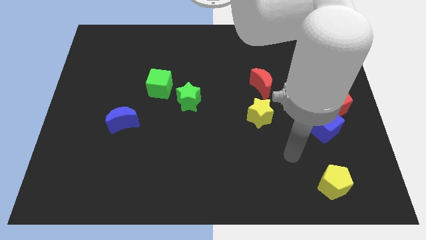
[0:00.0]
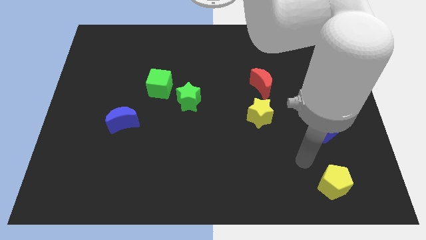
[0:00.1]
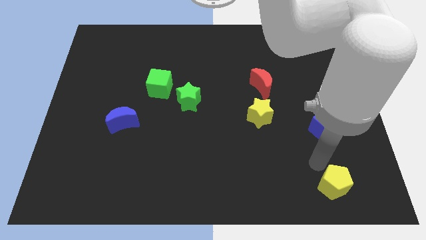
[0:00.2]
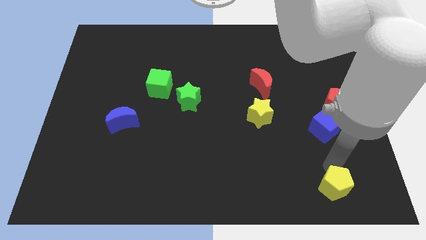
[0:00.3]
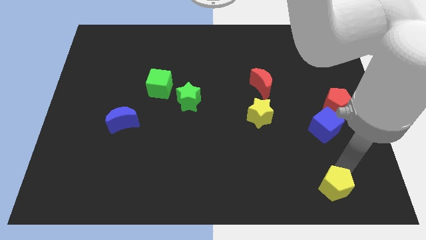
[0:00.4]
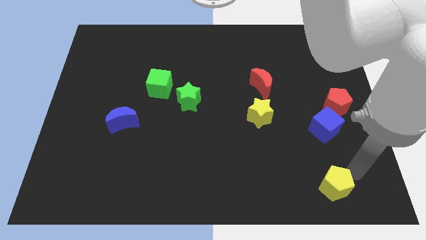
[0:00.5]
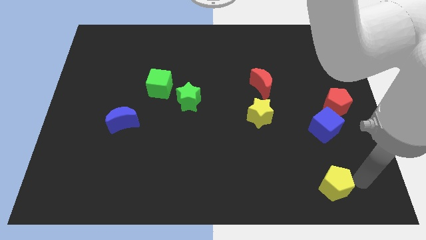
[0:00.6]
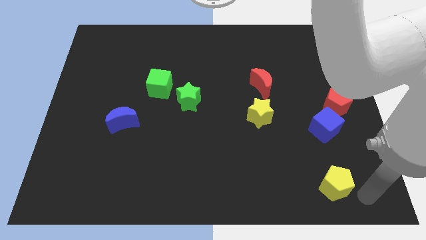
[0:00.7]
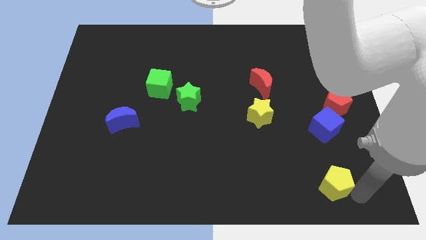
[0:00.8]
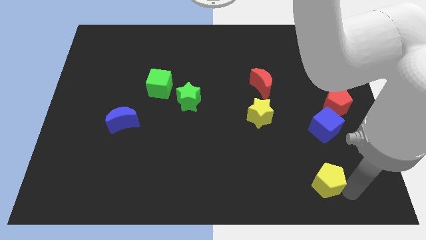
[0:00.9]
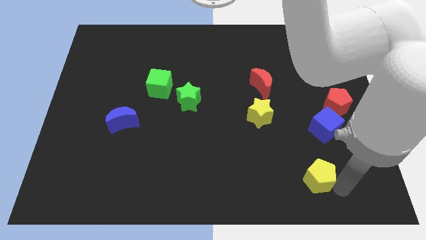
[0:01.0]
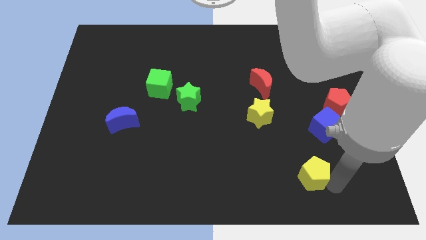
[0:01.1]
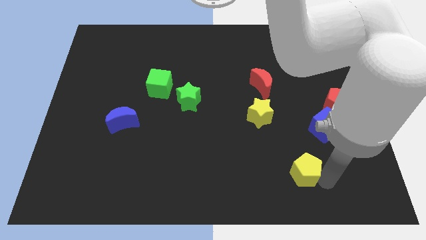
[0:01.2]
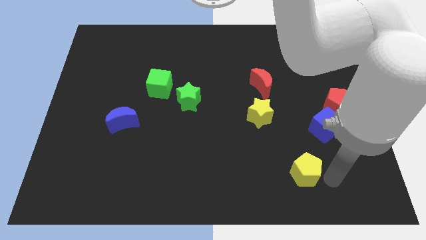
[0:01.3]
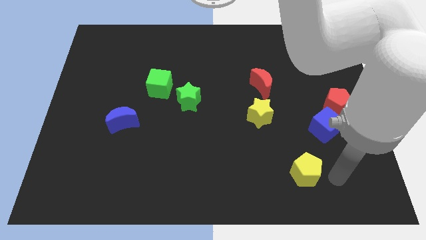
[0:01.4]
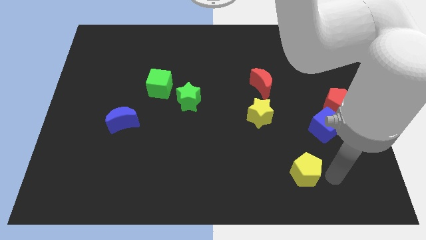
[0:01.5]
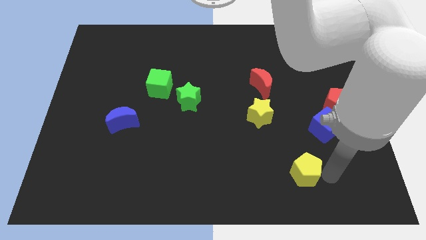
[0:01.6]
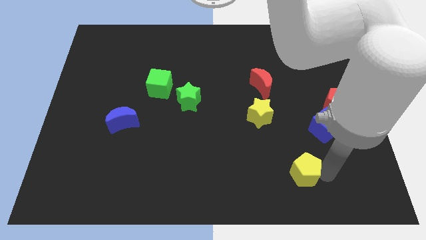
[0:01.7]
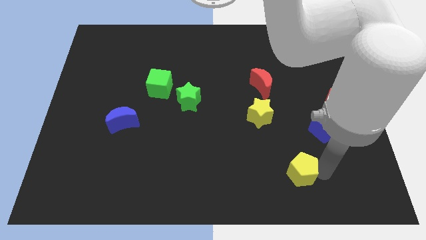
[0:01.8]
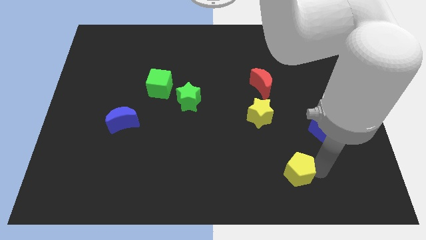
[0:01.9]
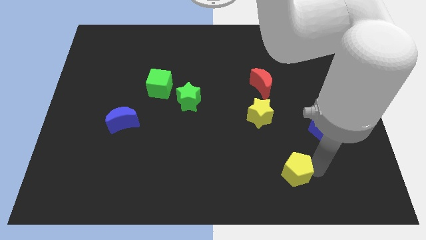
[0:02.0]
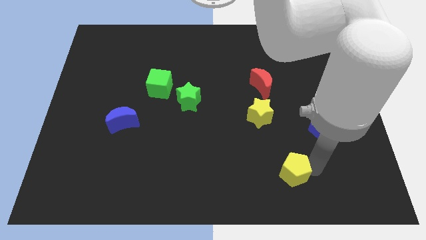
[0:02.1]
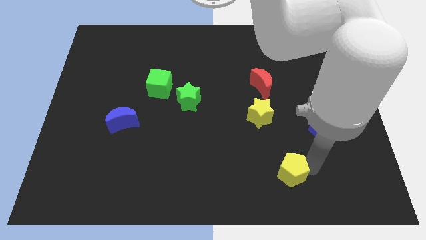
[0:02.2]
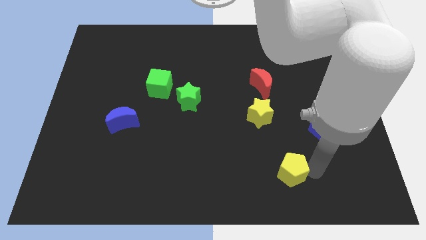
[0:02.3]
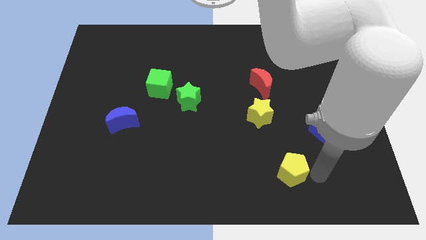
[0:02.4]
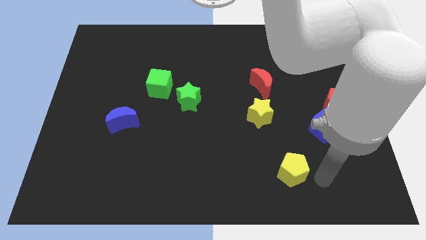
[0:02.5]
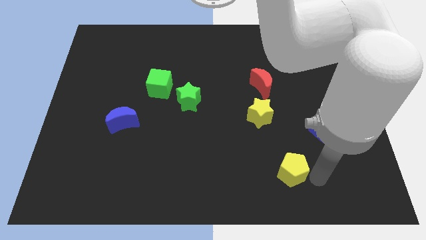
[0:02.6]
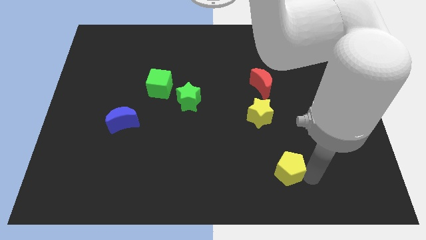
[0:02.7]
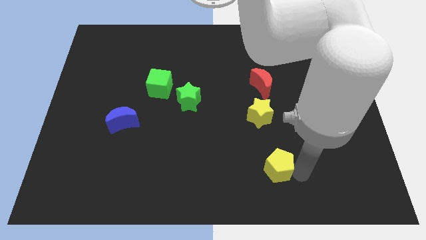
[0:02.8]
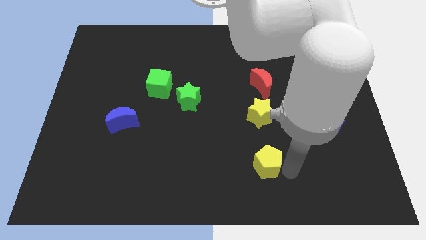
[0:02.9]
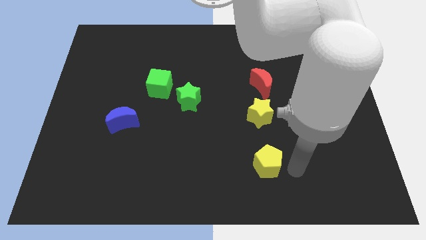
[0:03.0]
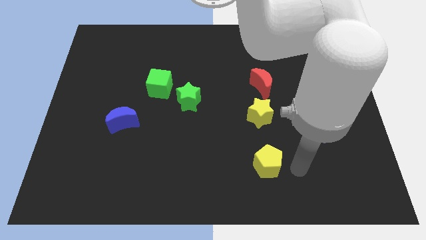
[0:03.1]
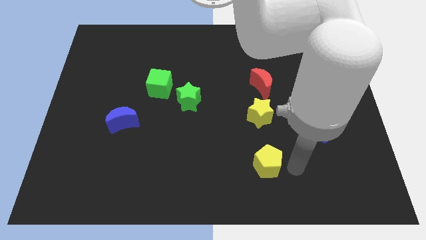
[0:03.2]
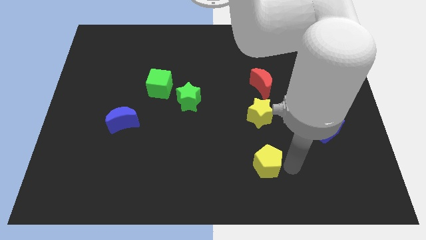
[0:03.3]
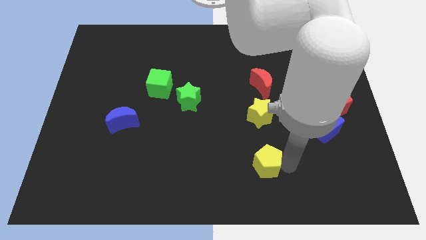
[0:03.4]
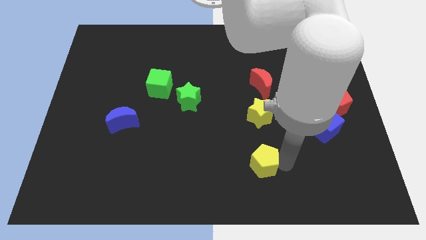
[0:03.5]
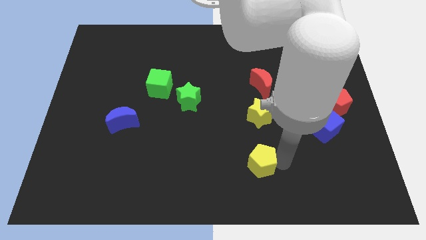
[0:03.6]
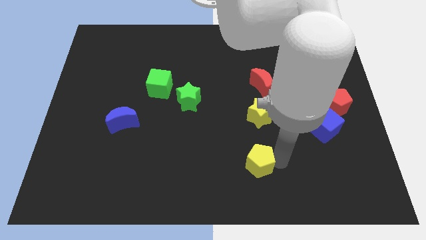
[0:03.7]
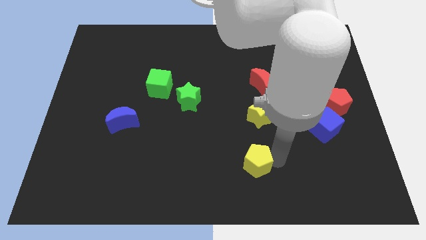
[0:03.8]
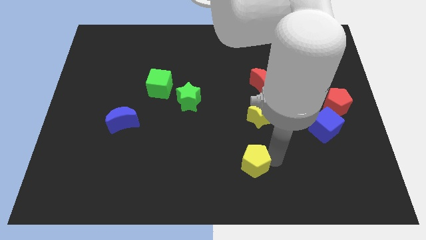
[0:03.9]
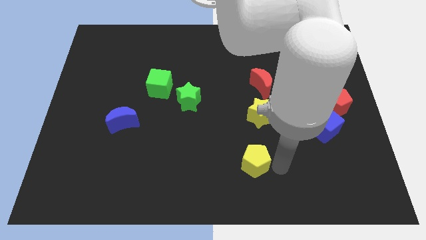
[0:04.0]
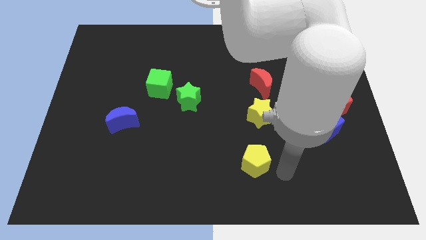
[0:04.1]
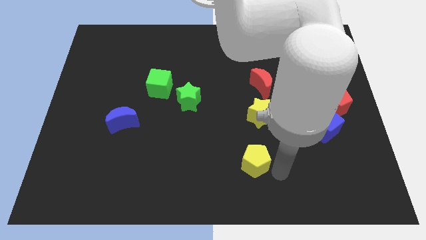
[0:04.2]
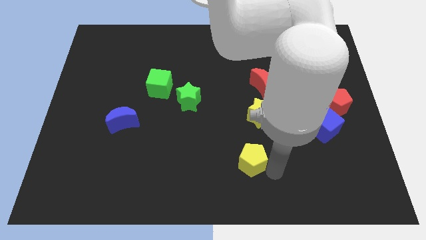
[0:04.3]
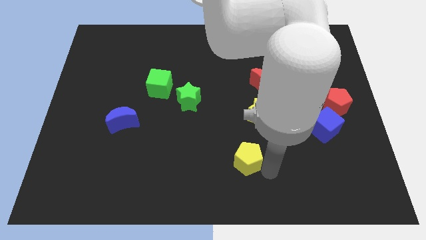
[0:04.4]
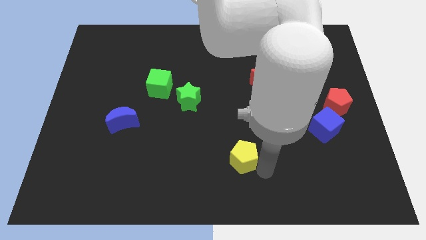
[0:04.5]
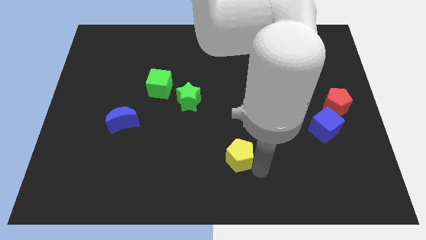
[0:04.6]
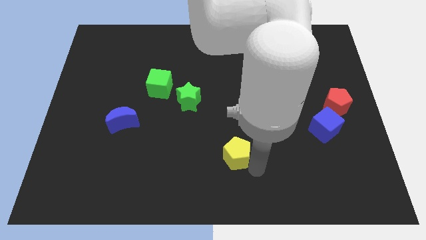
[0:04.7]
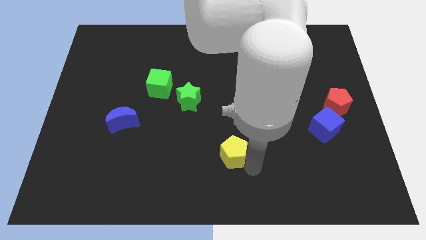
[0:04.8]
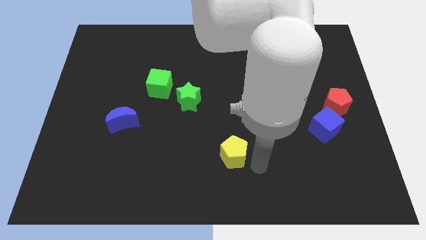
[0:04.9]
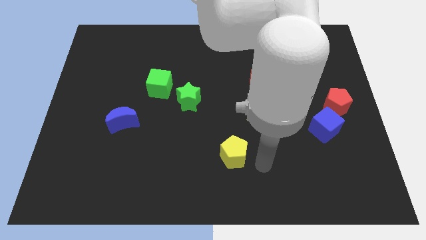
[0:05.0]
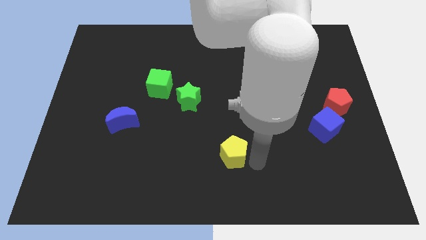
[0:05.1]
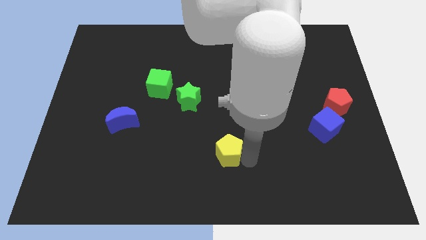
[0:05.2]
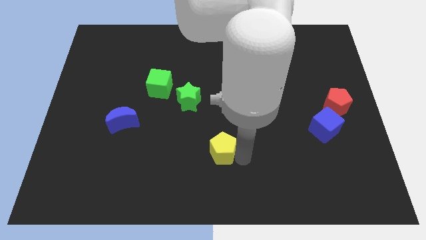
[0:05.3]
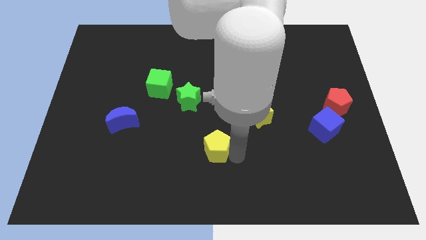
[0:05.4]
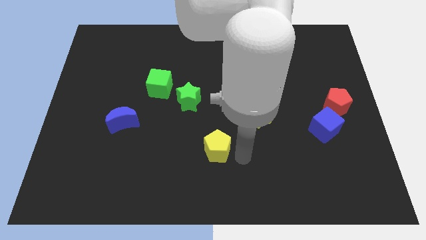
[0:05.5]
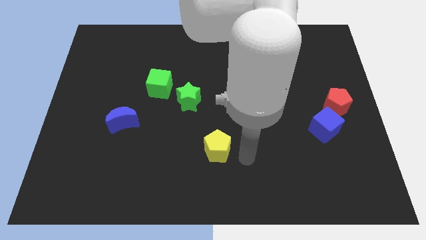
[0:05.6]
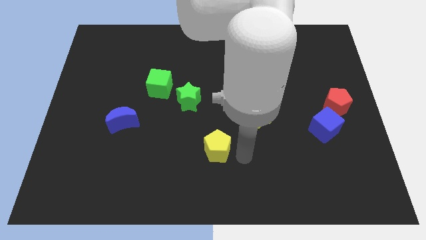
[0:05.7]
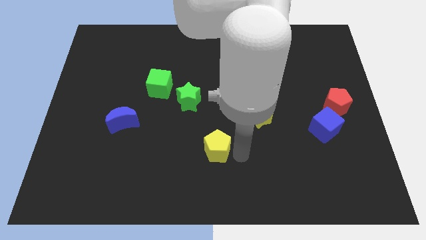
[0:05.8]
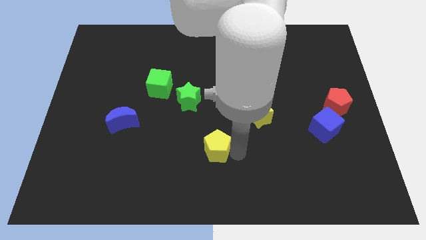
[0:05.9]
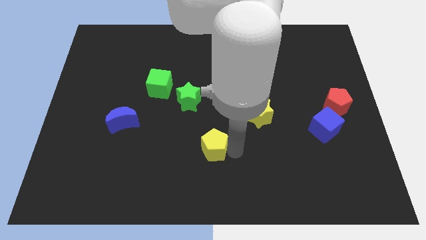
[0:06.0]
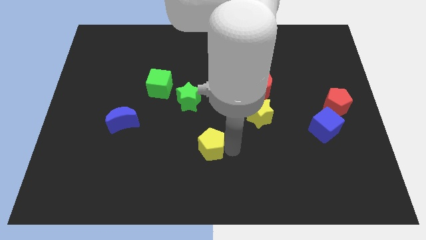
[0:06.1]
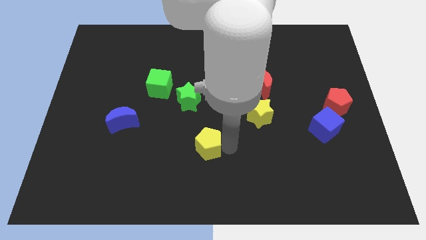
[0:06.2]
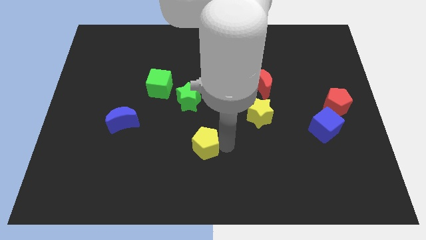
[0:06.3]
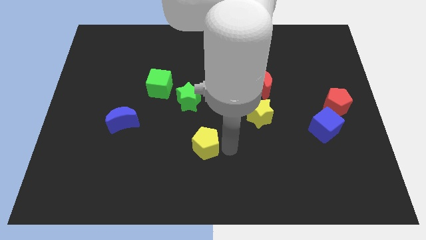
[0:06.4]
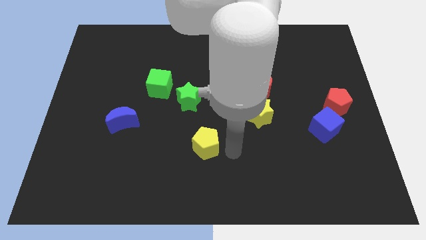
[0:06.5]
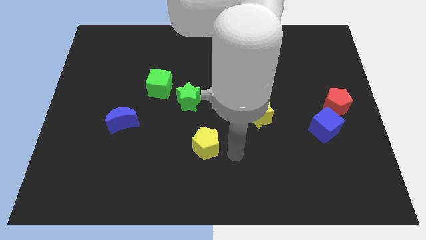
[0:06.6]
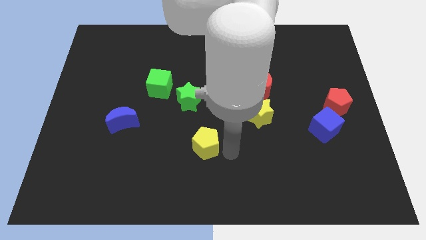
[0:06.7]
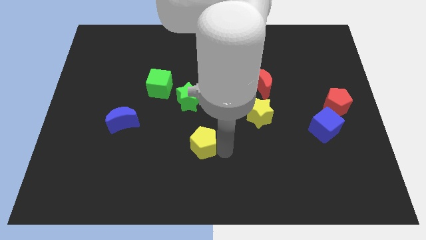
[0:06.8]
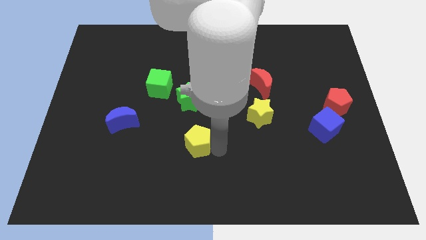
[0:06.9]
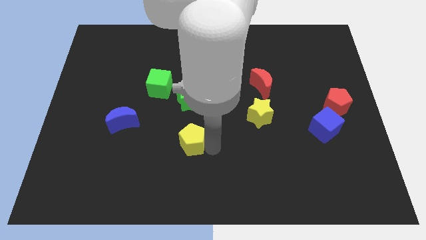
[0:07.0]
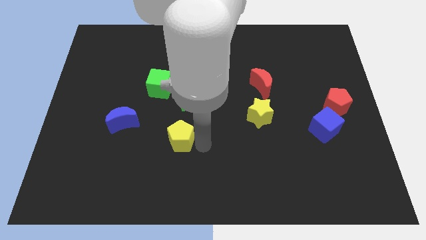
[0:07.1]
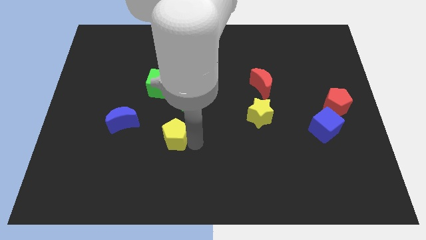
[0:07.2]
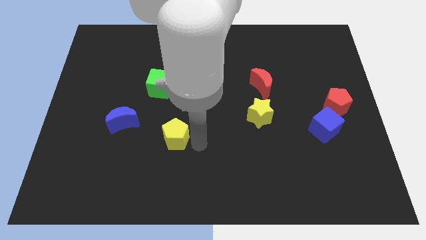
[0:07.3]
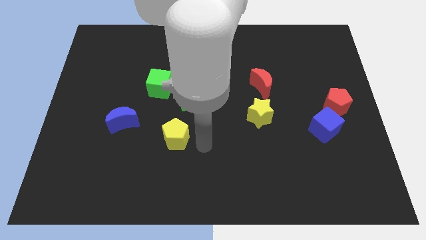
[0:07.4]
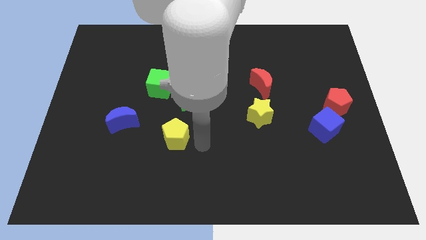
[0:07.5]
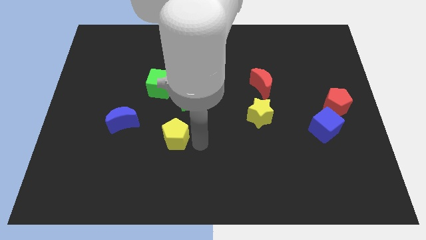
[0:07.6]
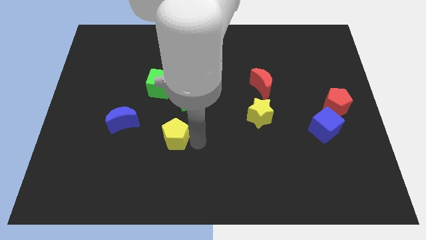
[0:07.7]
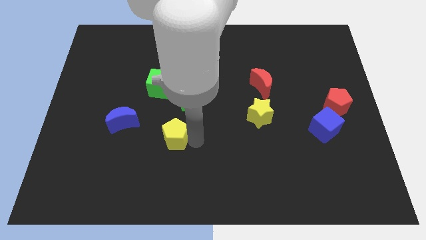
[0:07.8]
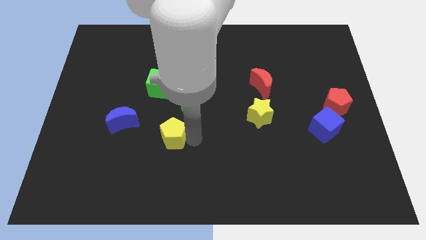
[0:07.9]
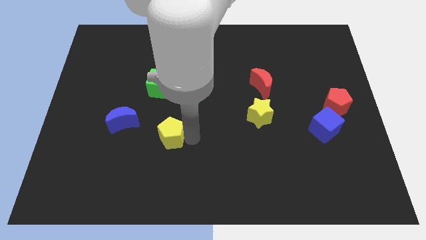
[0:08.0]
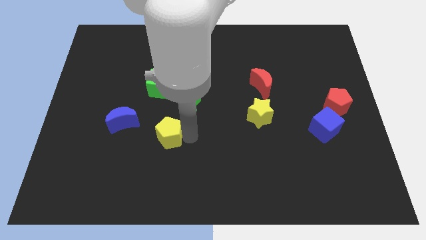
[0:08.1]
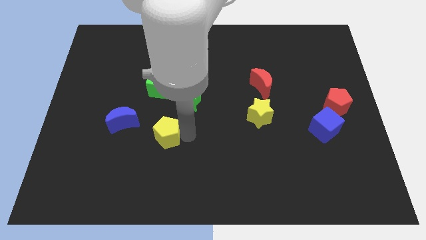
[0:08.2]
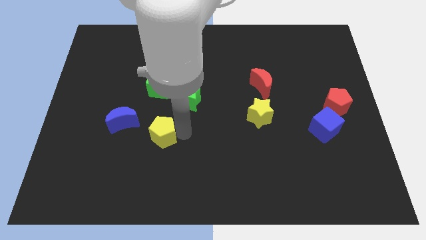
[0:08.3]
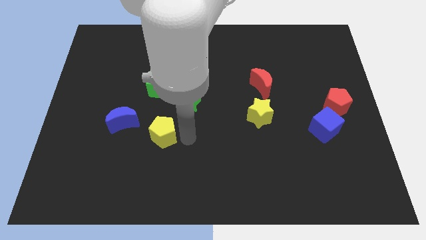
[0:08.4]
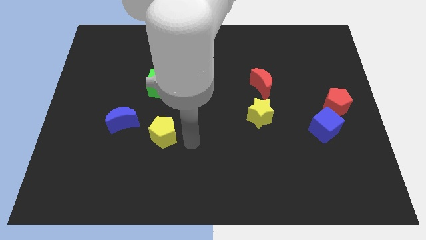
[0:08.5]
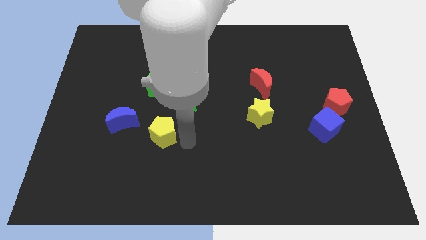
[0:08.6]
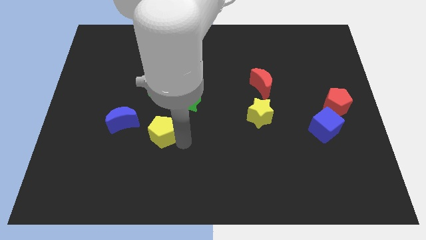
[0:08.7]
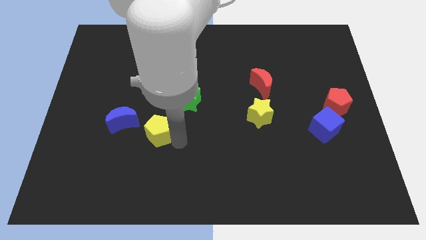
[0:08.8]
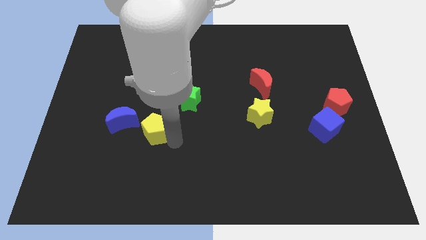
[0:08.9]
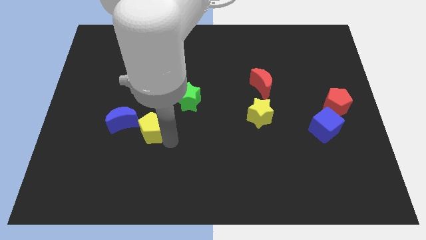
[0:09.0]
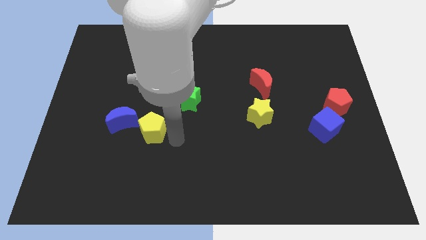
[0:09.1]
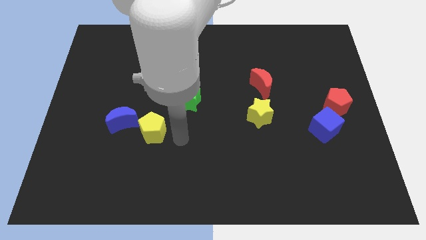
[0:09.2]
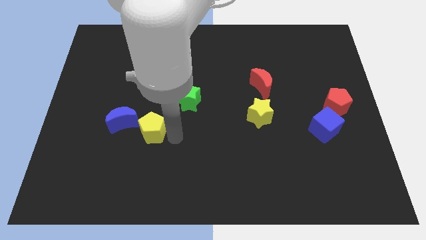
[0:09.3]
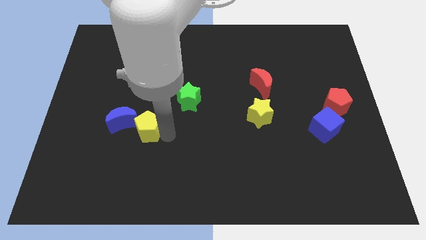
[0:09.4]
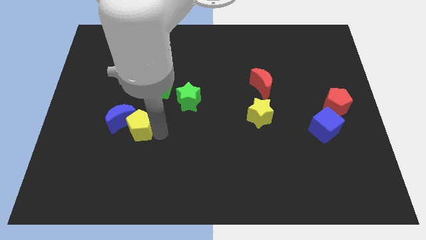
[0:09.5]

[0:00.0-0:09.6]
move the yellow pentagon close to the blue moon
